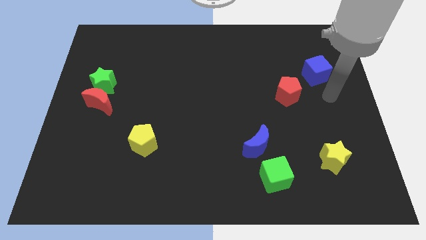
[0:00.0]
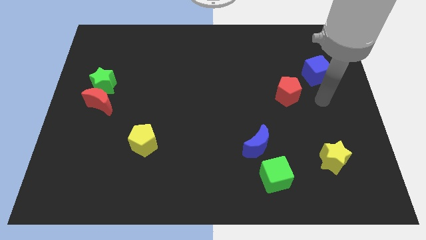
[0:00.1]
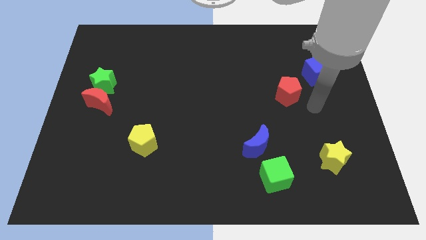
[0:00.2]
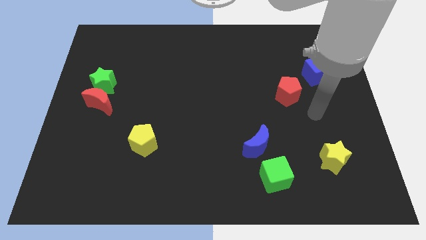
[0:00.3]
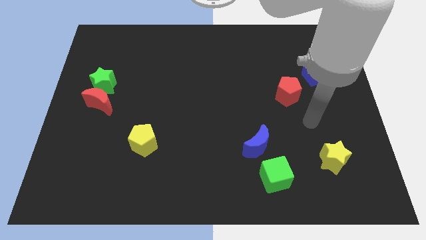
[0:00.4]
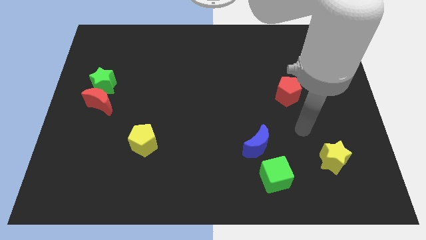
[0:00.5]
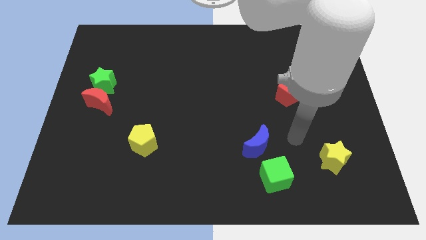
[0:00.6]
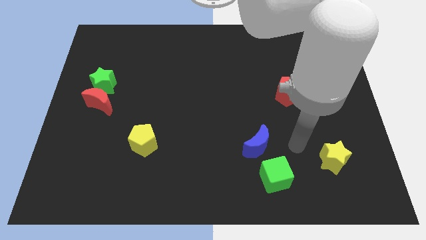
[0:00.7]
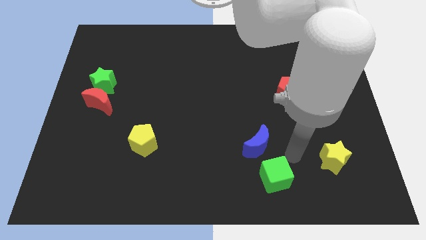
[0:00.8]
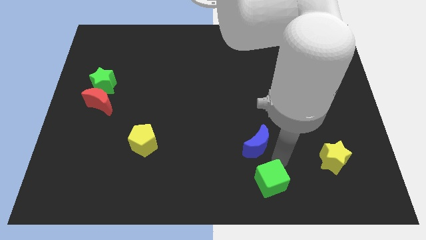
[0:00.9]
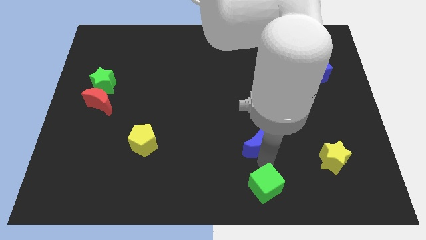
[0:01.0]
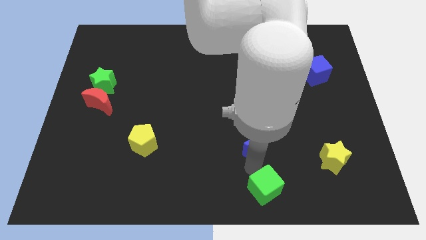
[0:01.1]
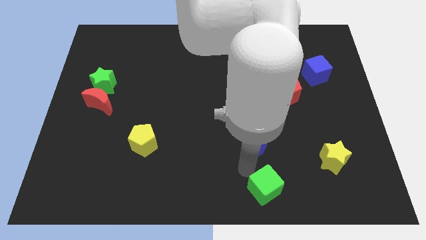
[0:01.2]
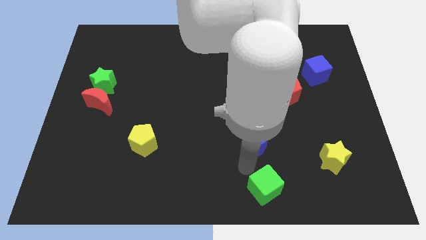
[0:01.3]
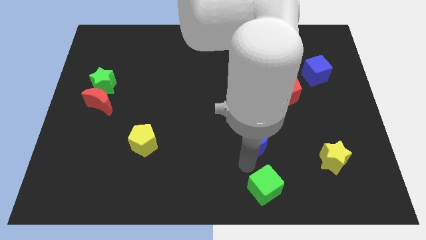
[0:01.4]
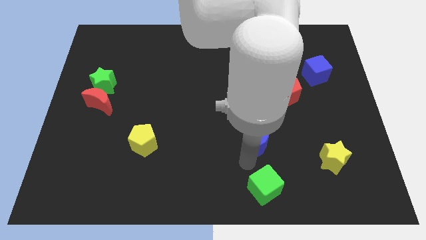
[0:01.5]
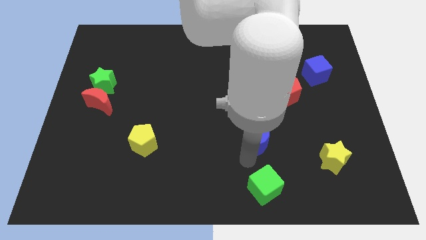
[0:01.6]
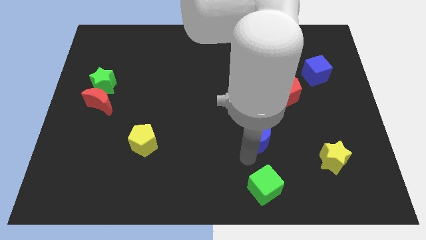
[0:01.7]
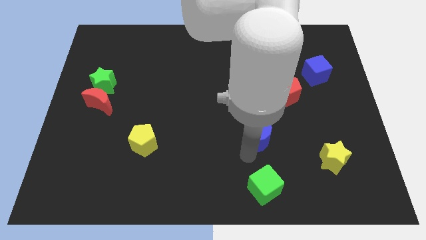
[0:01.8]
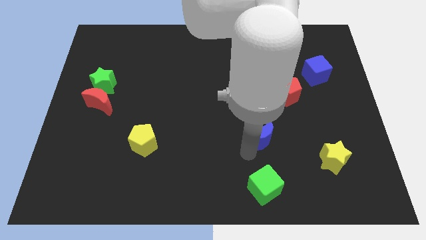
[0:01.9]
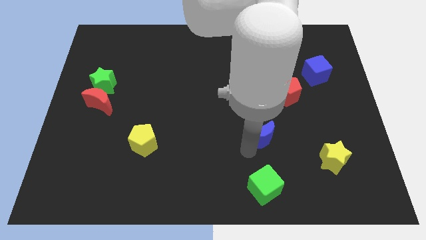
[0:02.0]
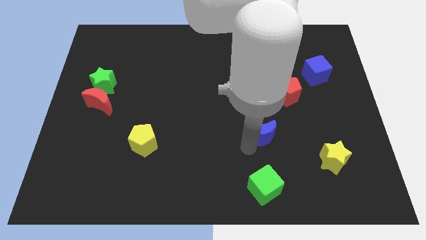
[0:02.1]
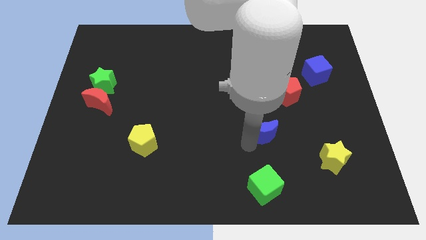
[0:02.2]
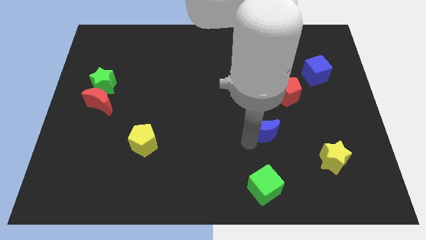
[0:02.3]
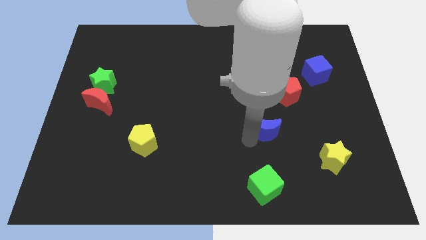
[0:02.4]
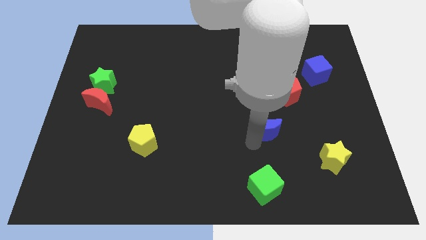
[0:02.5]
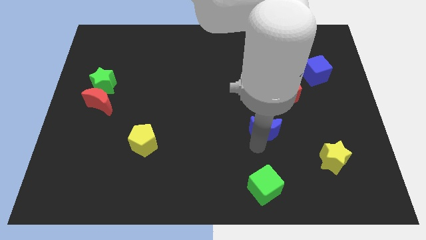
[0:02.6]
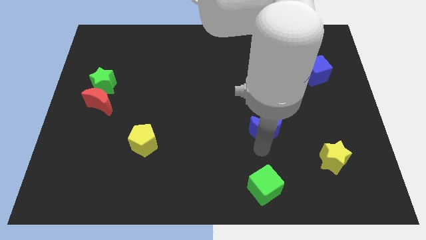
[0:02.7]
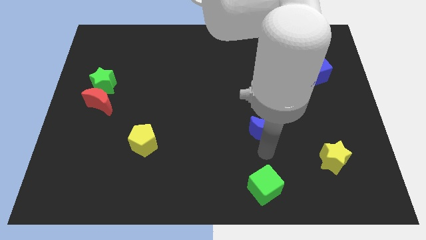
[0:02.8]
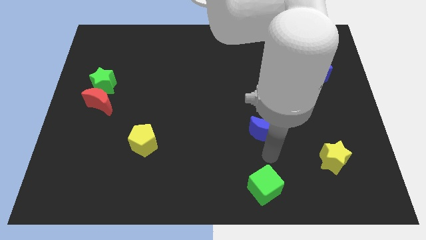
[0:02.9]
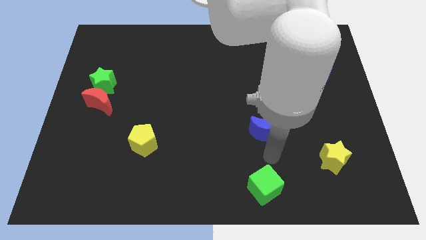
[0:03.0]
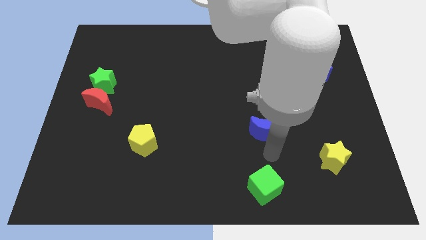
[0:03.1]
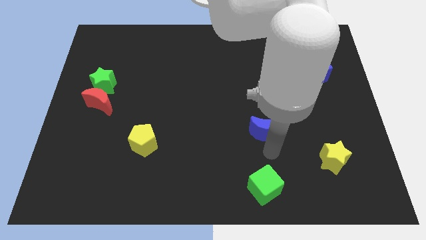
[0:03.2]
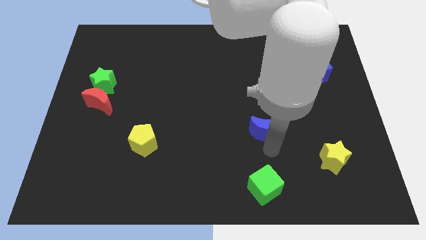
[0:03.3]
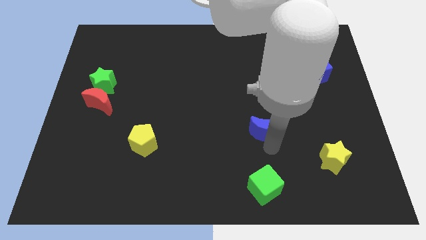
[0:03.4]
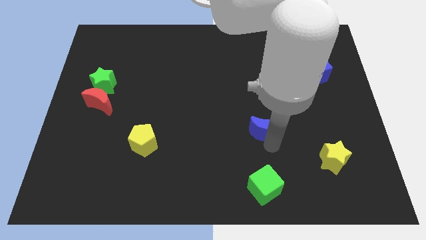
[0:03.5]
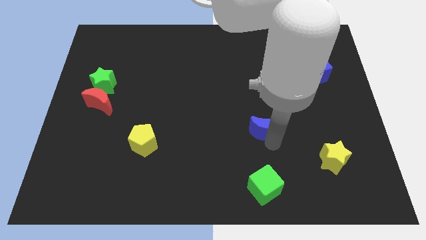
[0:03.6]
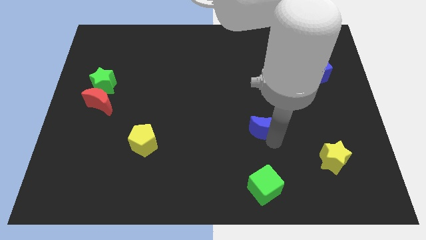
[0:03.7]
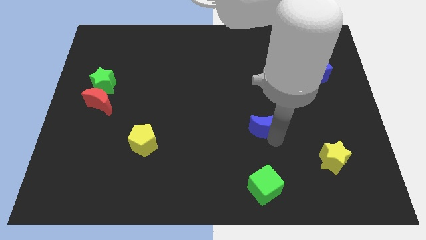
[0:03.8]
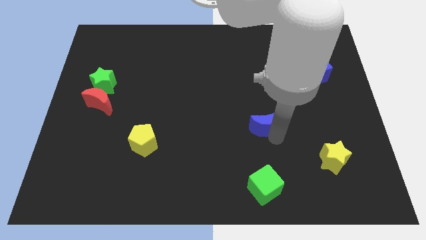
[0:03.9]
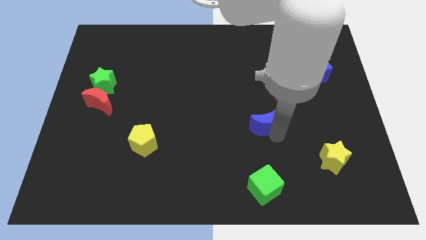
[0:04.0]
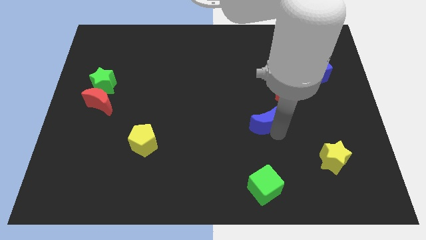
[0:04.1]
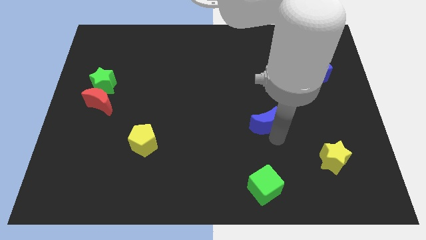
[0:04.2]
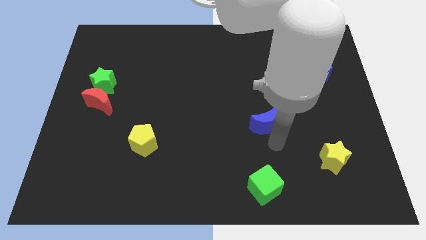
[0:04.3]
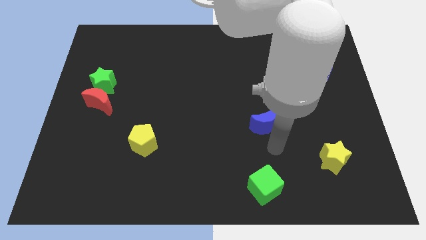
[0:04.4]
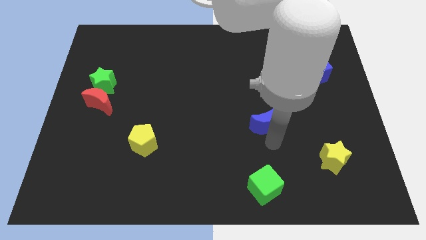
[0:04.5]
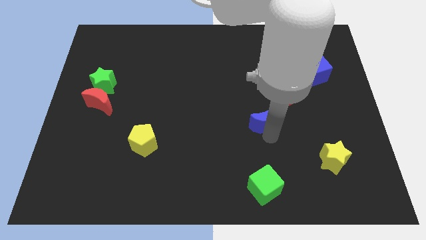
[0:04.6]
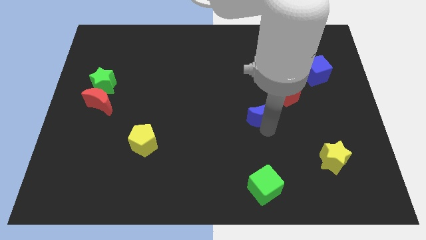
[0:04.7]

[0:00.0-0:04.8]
push the blue moon a little up

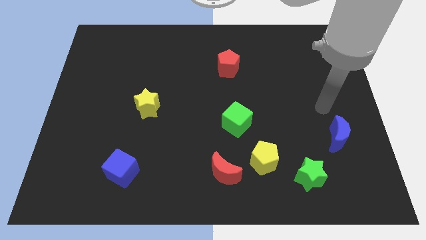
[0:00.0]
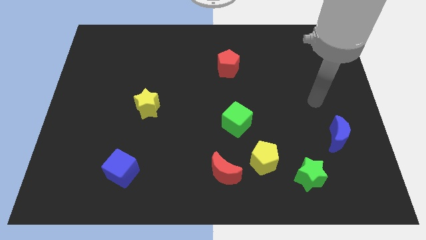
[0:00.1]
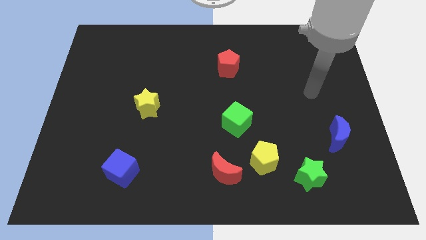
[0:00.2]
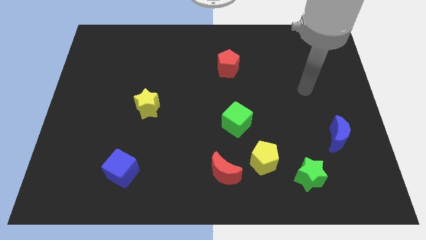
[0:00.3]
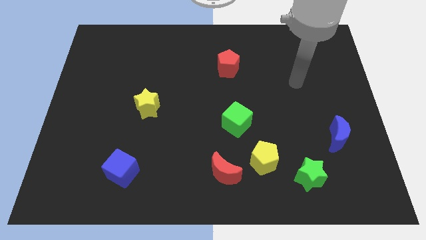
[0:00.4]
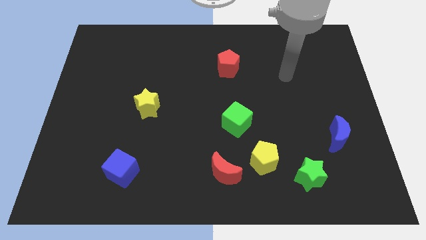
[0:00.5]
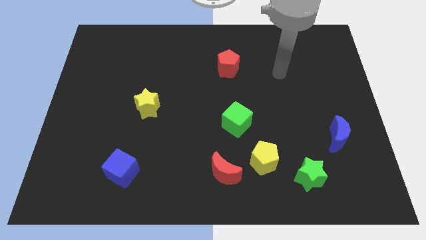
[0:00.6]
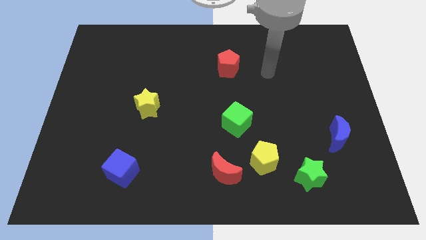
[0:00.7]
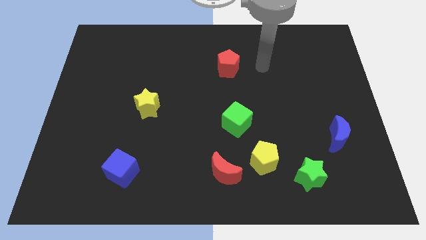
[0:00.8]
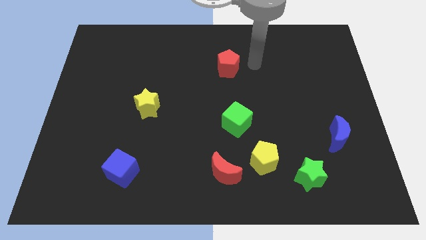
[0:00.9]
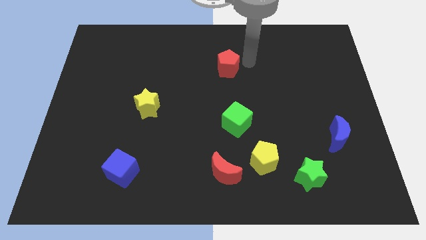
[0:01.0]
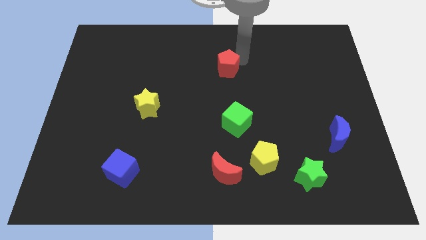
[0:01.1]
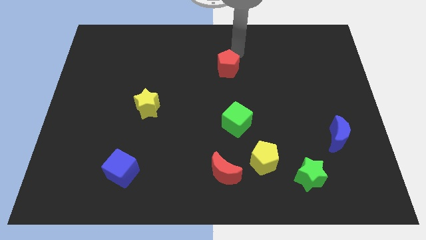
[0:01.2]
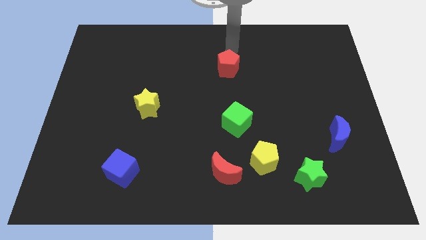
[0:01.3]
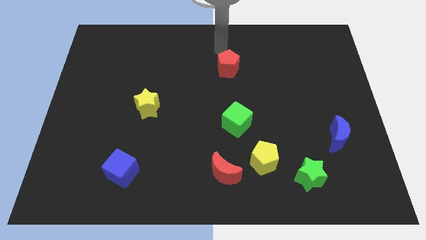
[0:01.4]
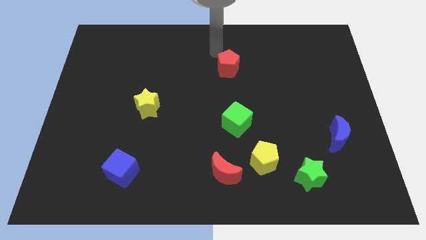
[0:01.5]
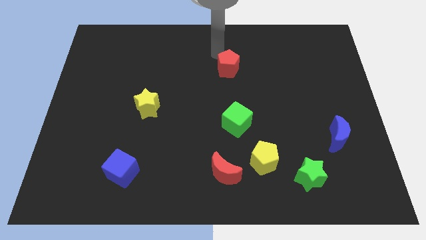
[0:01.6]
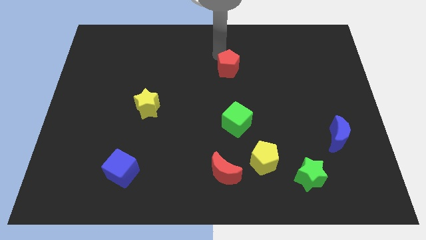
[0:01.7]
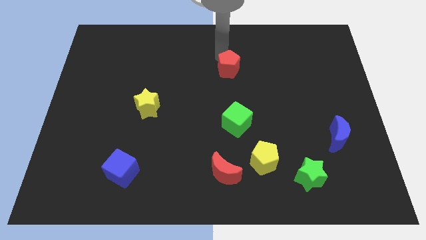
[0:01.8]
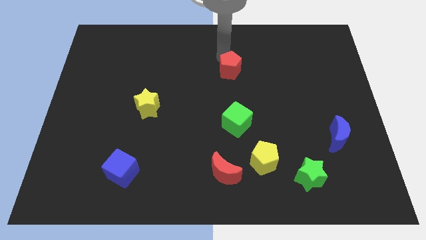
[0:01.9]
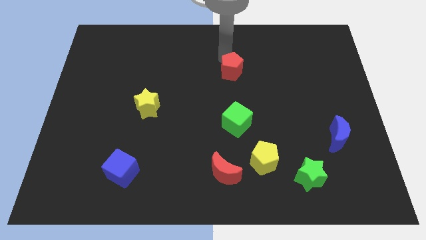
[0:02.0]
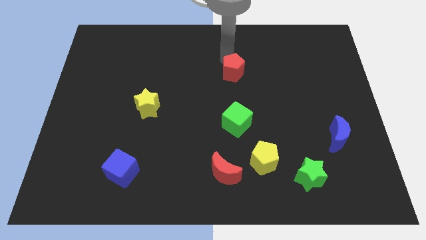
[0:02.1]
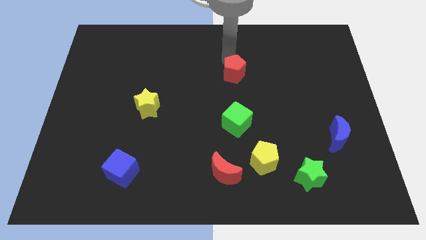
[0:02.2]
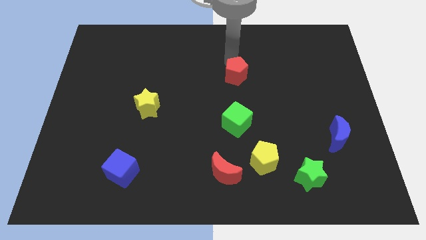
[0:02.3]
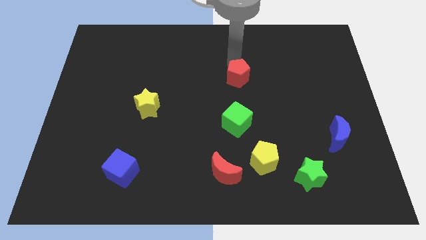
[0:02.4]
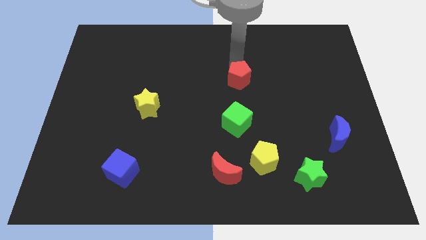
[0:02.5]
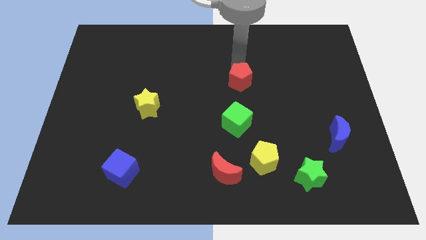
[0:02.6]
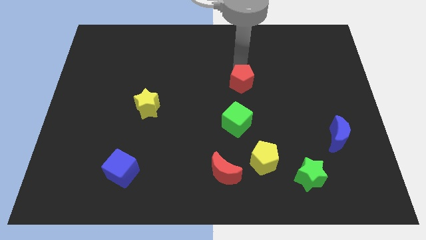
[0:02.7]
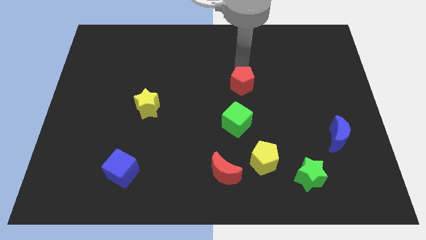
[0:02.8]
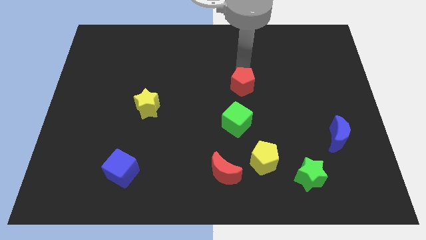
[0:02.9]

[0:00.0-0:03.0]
move the red pentagon slightly downwards and to the right

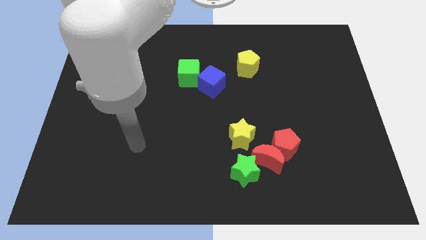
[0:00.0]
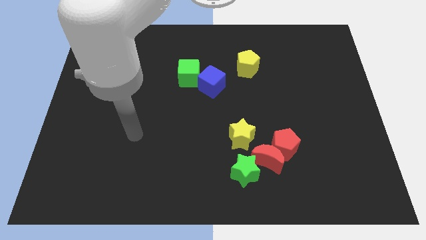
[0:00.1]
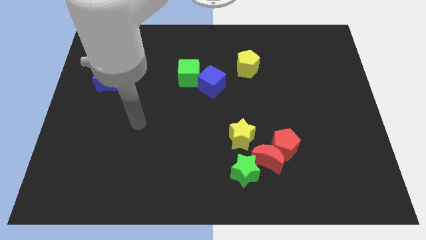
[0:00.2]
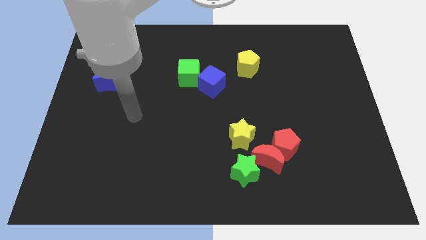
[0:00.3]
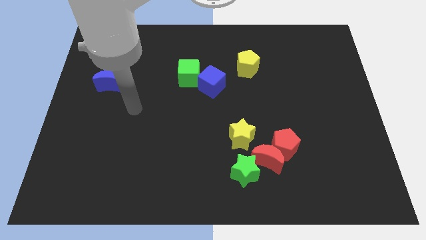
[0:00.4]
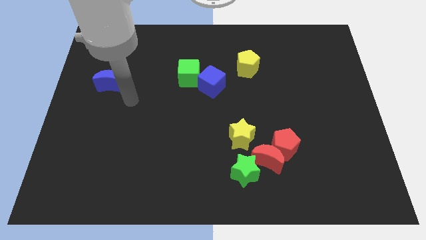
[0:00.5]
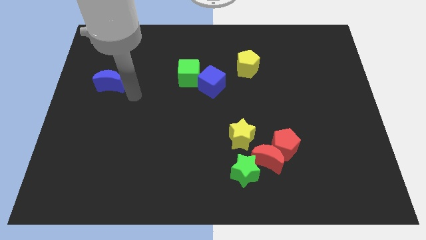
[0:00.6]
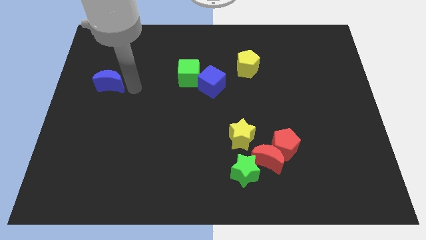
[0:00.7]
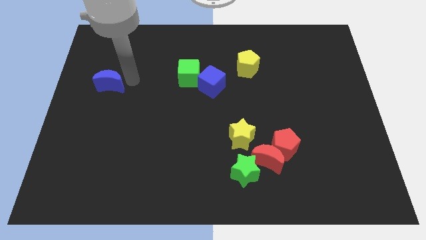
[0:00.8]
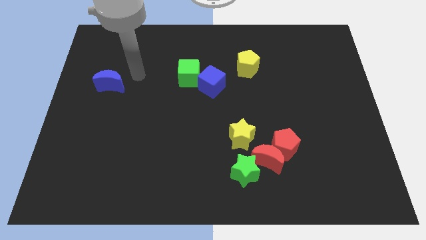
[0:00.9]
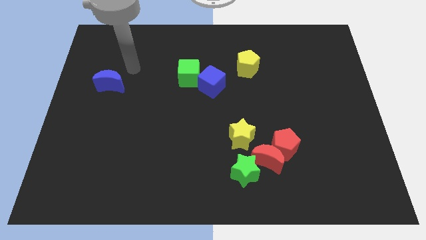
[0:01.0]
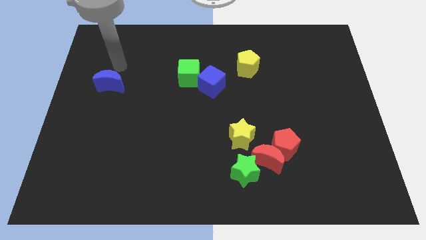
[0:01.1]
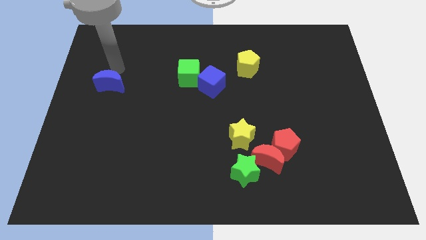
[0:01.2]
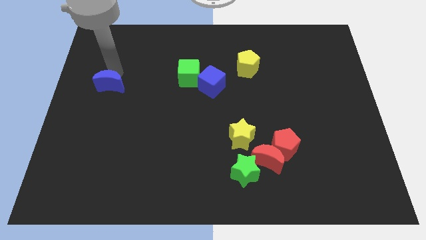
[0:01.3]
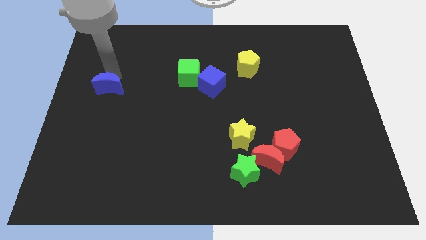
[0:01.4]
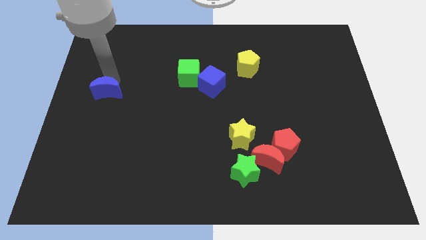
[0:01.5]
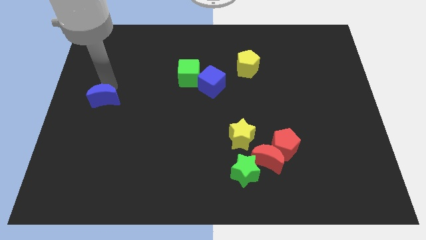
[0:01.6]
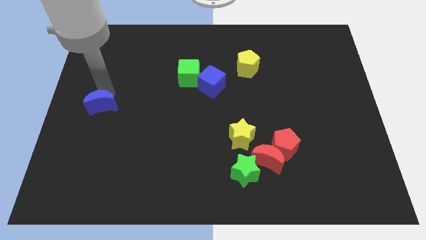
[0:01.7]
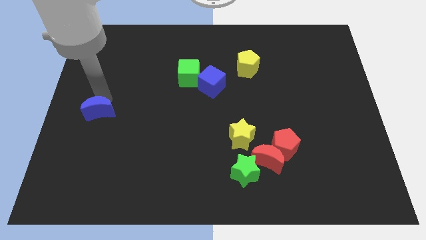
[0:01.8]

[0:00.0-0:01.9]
move the blue moon down a little bit
